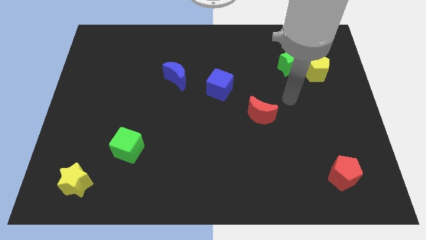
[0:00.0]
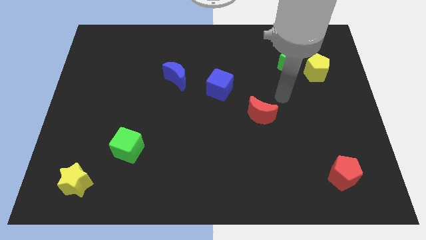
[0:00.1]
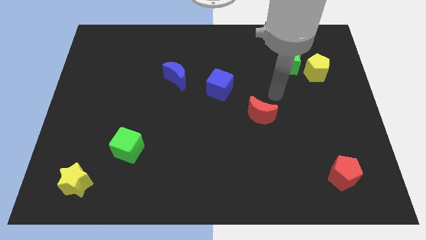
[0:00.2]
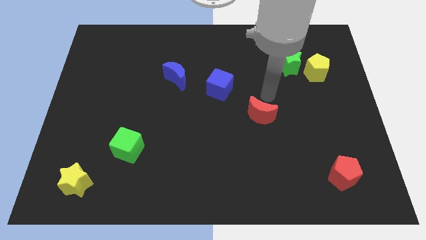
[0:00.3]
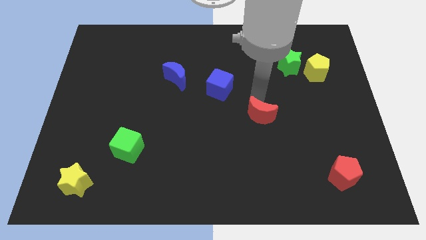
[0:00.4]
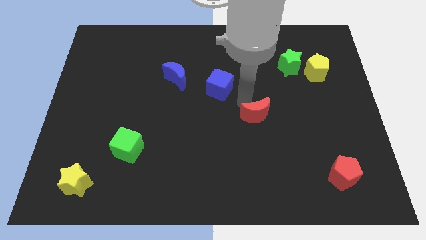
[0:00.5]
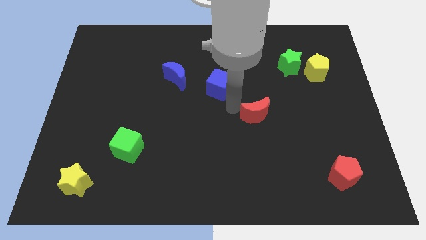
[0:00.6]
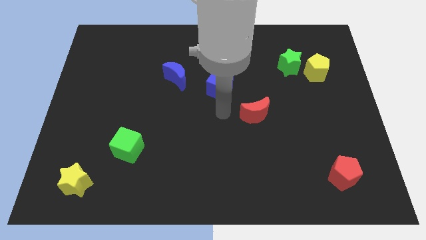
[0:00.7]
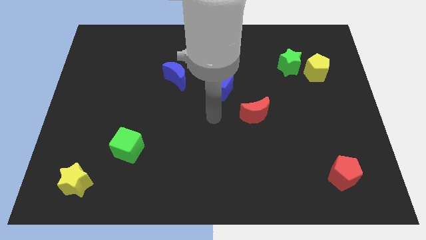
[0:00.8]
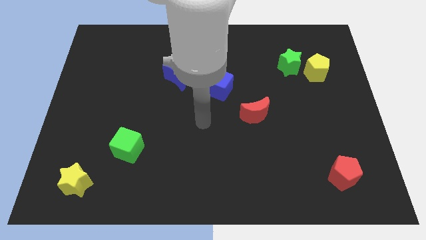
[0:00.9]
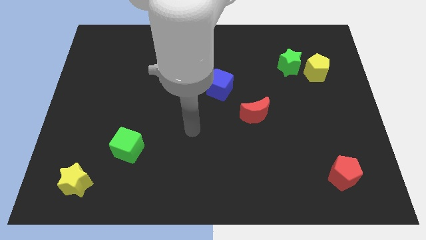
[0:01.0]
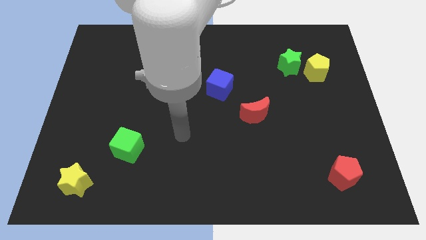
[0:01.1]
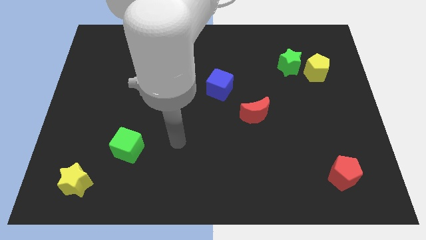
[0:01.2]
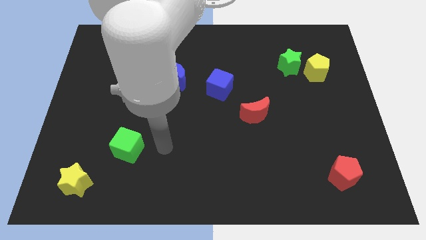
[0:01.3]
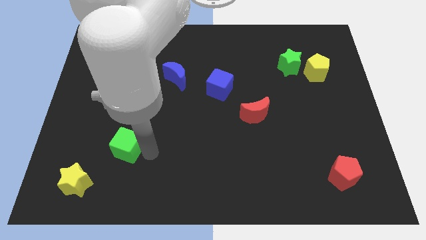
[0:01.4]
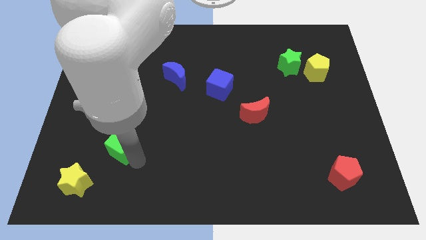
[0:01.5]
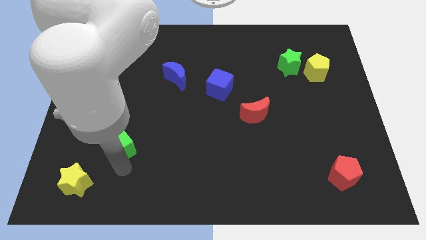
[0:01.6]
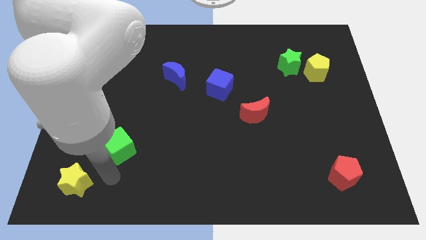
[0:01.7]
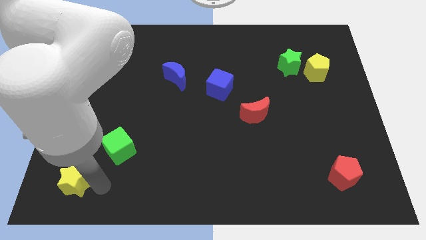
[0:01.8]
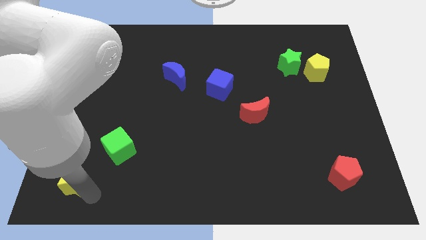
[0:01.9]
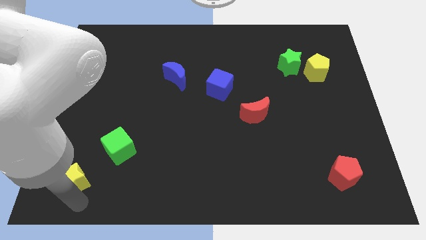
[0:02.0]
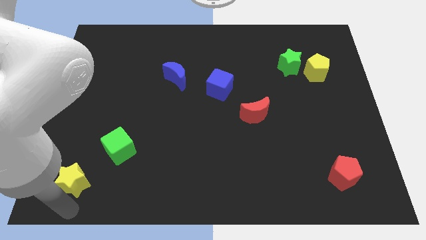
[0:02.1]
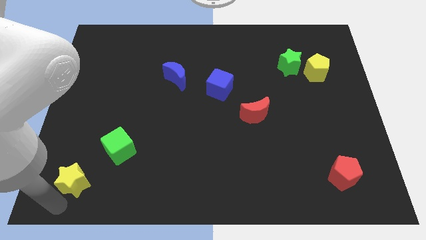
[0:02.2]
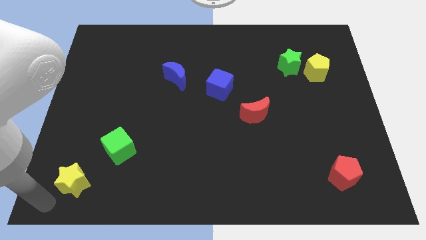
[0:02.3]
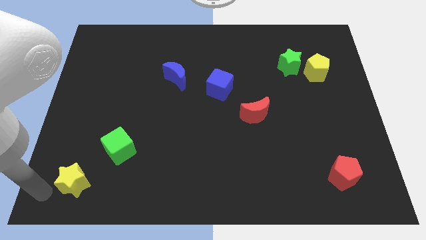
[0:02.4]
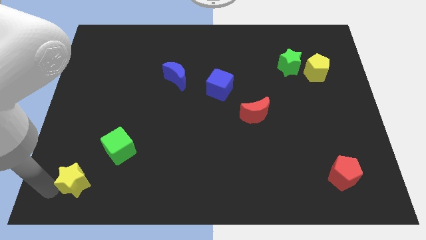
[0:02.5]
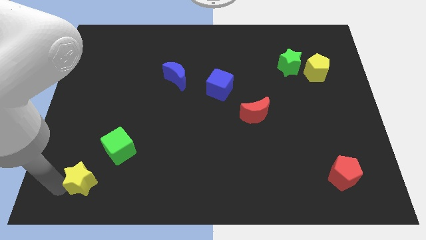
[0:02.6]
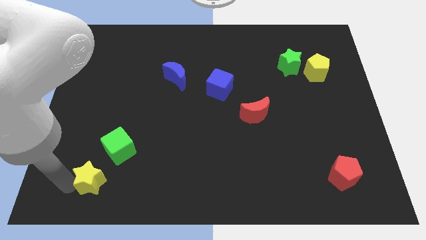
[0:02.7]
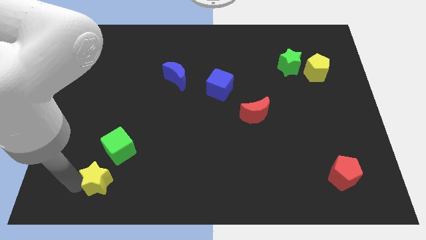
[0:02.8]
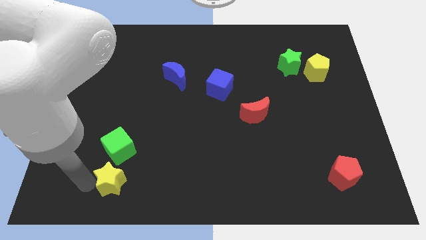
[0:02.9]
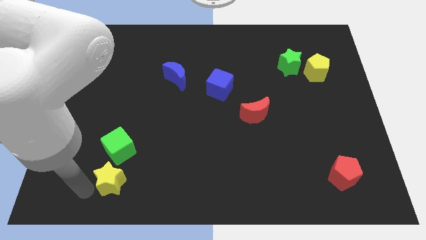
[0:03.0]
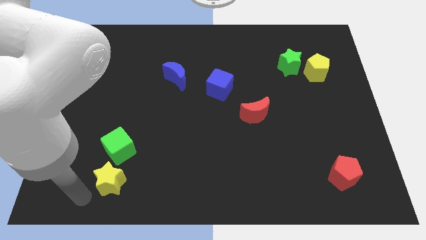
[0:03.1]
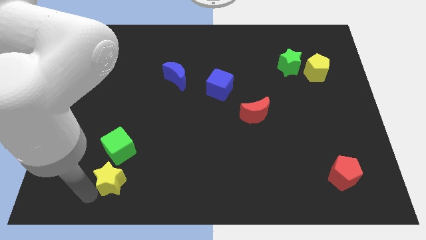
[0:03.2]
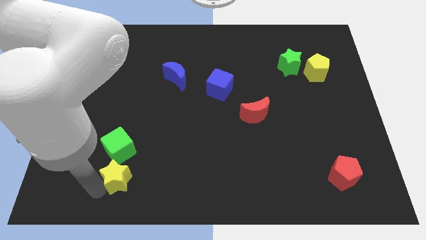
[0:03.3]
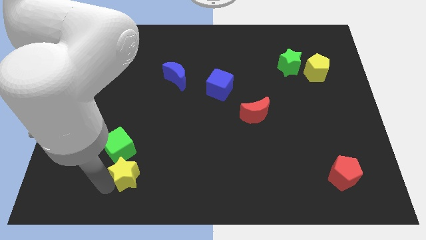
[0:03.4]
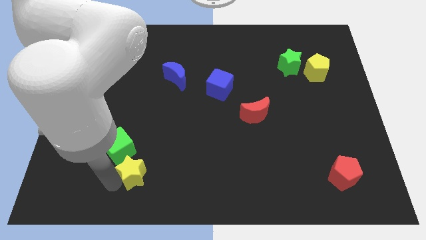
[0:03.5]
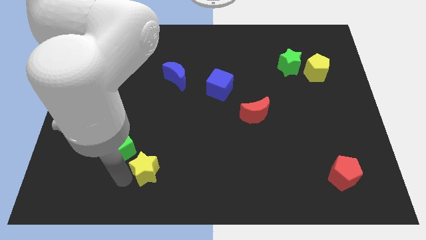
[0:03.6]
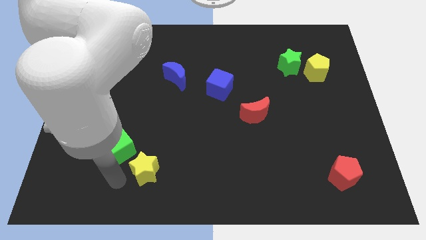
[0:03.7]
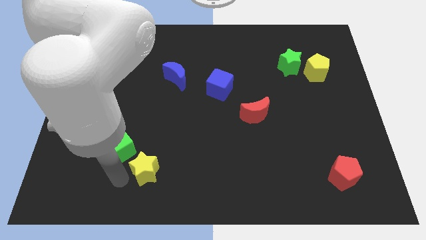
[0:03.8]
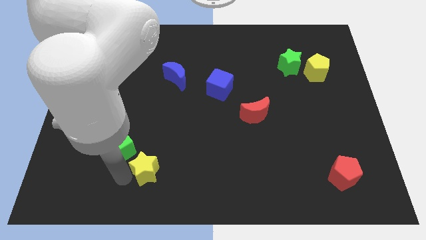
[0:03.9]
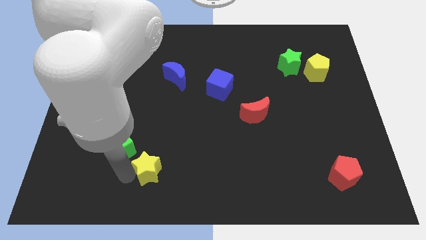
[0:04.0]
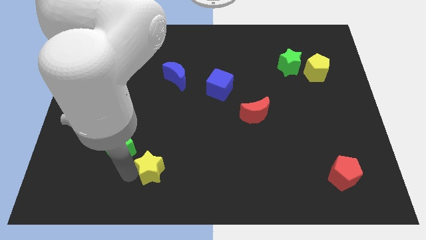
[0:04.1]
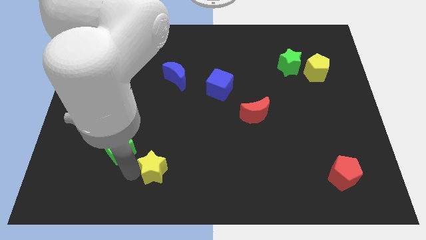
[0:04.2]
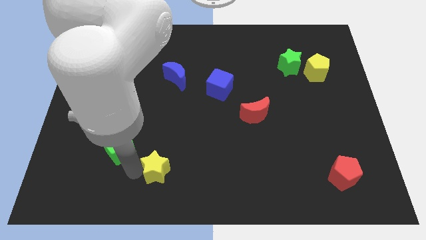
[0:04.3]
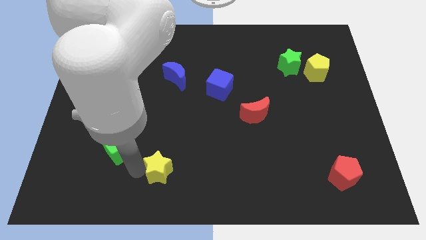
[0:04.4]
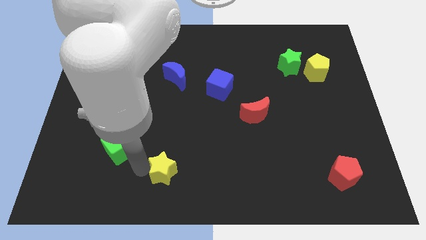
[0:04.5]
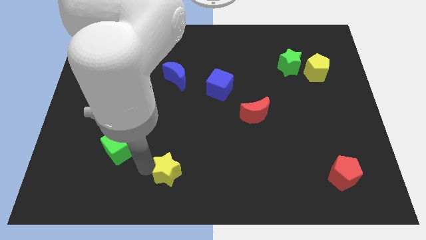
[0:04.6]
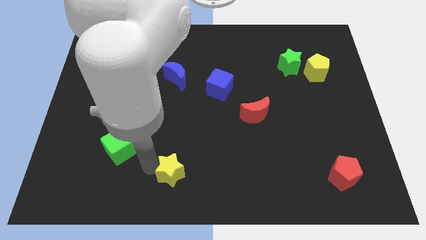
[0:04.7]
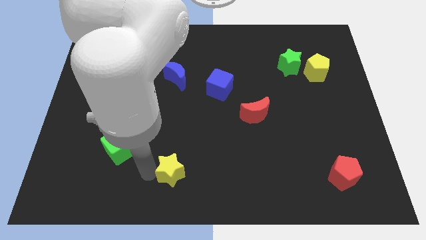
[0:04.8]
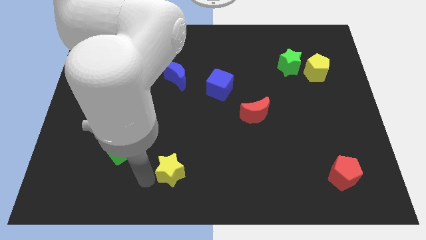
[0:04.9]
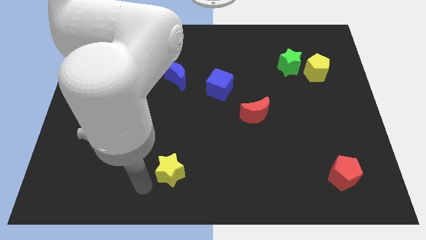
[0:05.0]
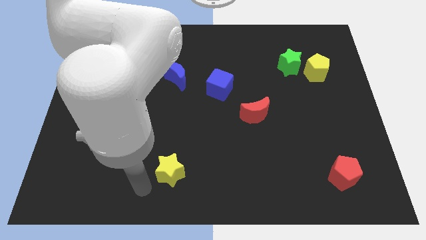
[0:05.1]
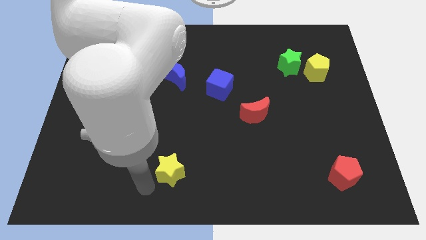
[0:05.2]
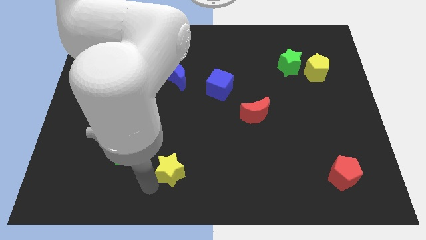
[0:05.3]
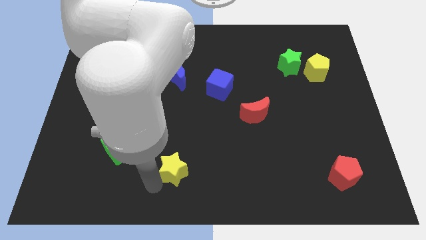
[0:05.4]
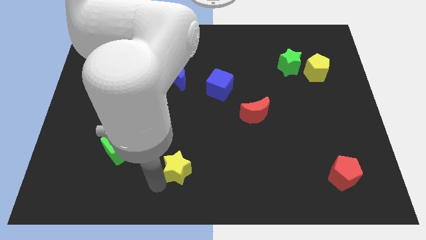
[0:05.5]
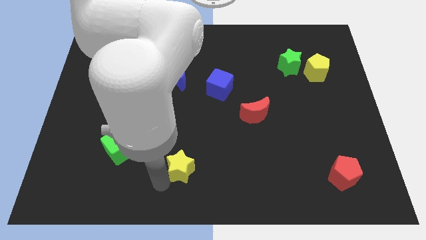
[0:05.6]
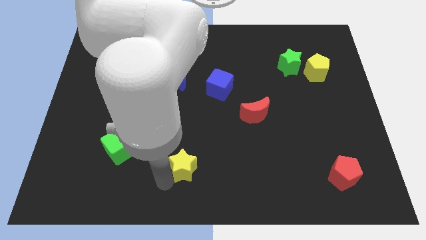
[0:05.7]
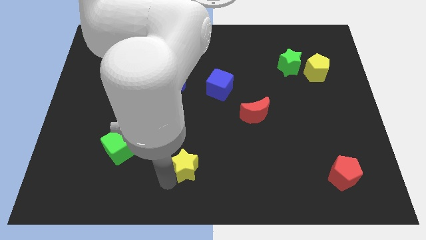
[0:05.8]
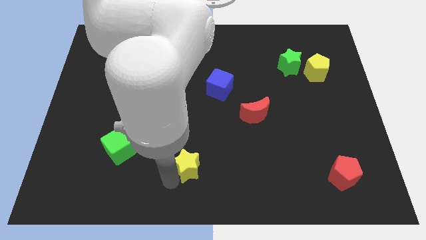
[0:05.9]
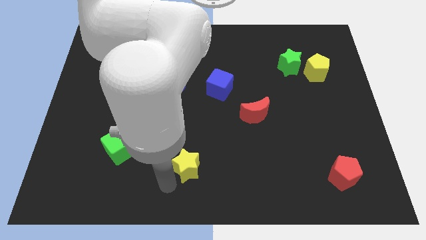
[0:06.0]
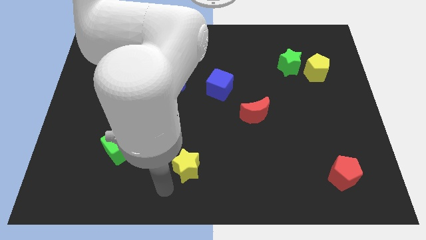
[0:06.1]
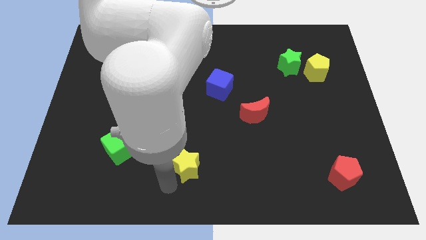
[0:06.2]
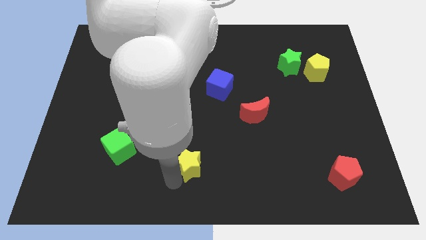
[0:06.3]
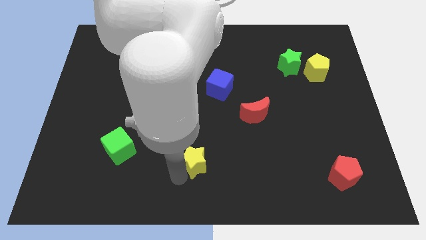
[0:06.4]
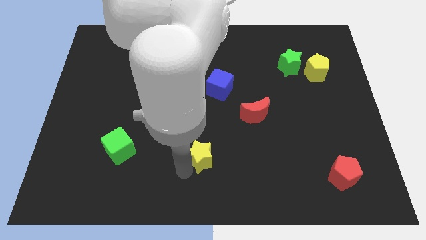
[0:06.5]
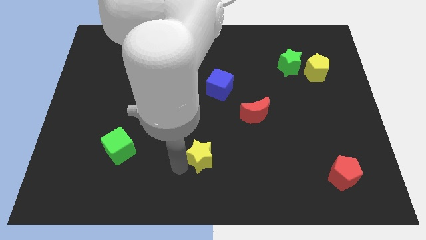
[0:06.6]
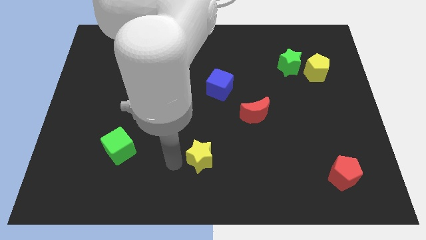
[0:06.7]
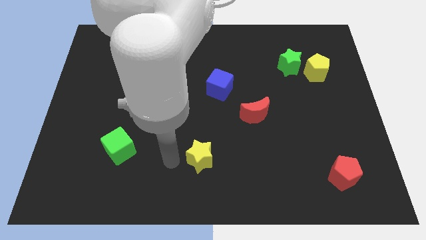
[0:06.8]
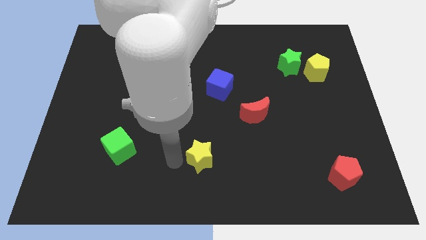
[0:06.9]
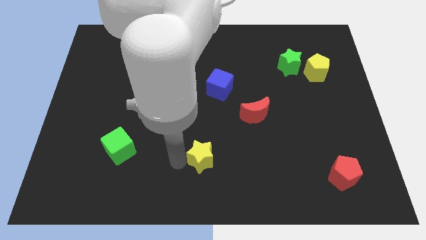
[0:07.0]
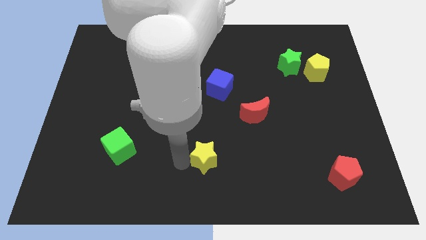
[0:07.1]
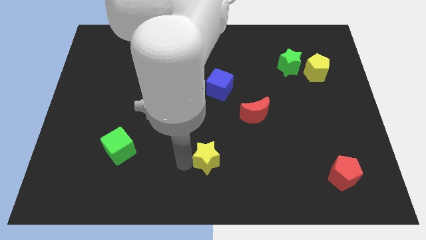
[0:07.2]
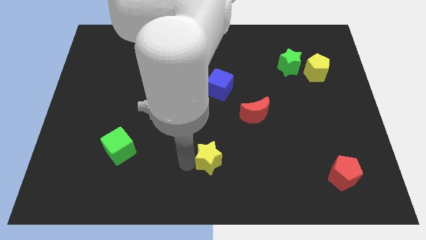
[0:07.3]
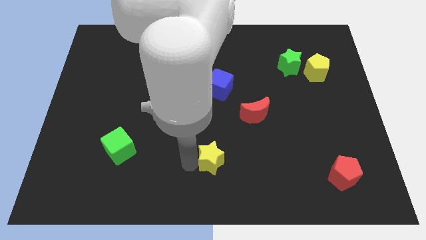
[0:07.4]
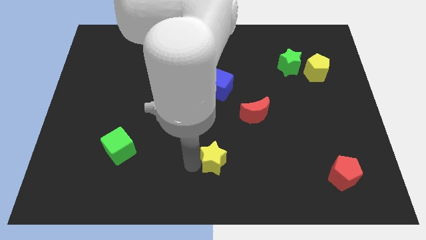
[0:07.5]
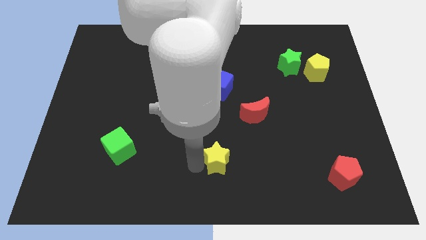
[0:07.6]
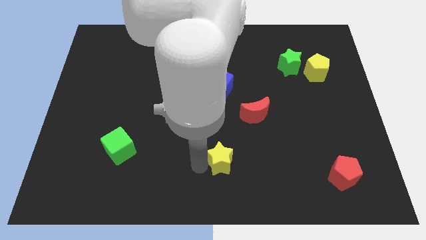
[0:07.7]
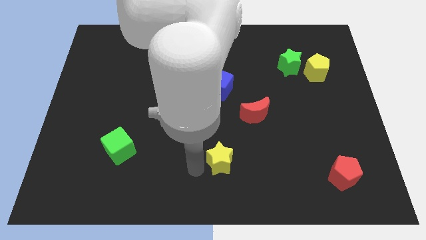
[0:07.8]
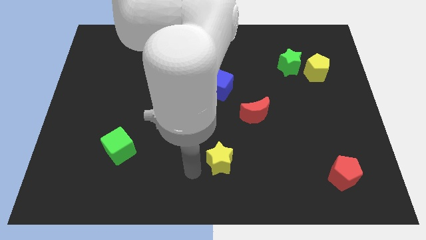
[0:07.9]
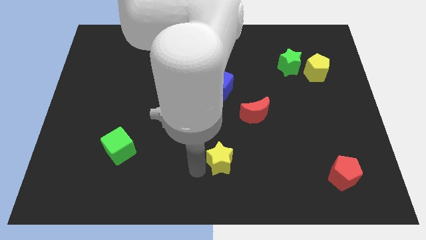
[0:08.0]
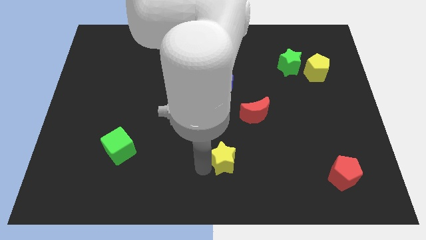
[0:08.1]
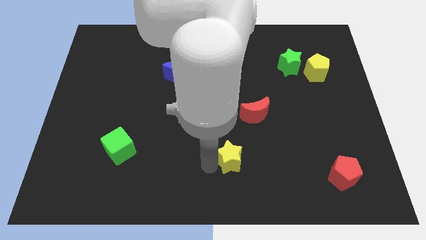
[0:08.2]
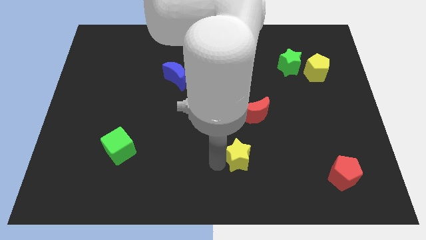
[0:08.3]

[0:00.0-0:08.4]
push the yellow star to the bottom side of the red moon
